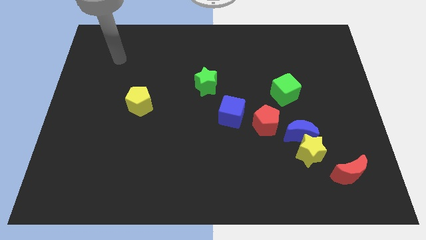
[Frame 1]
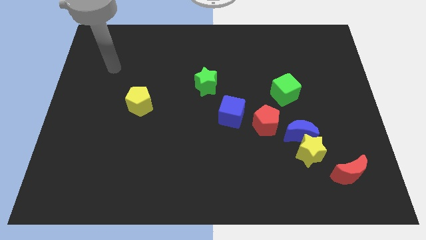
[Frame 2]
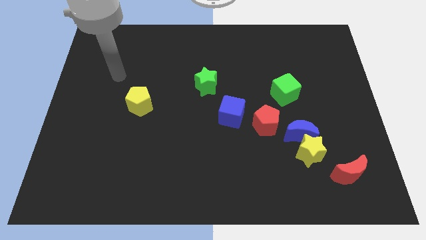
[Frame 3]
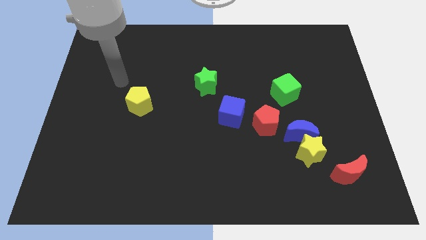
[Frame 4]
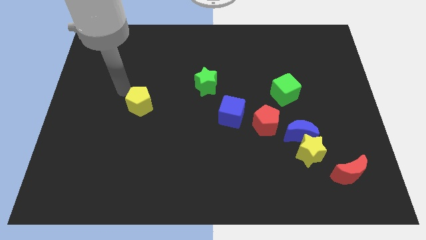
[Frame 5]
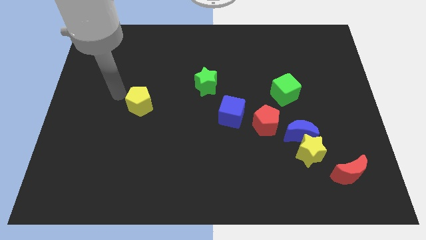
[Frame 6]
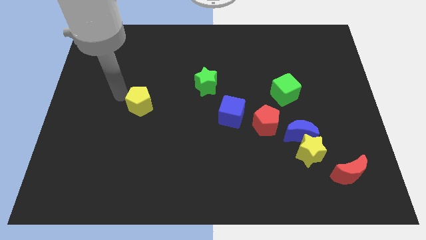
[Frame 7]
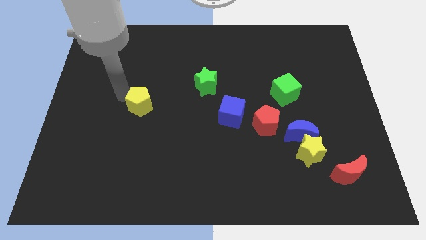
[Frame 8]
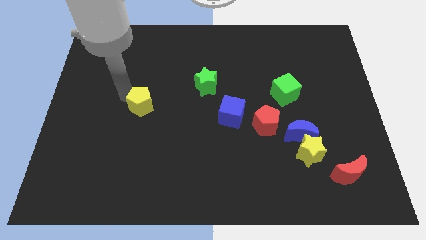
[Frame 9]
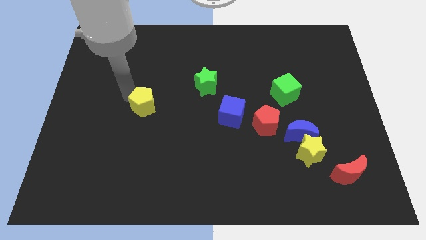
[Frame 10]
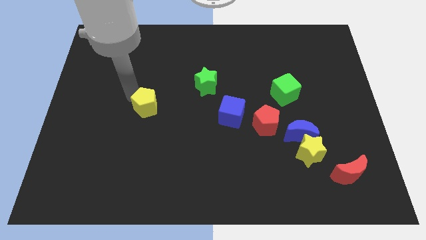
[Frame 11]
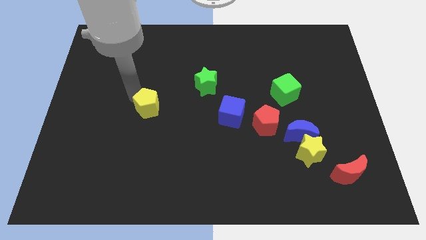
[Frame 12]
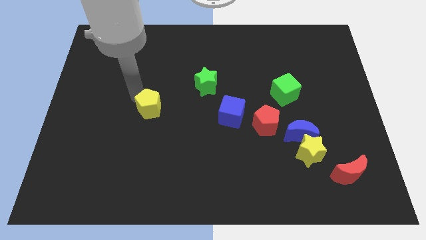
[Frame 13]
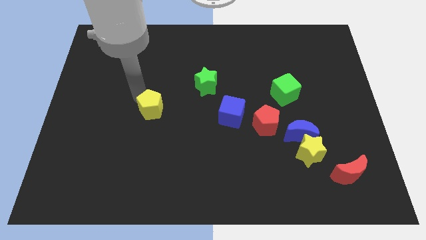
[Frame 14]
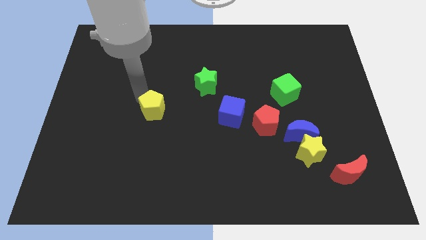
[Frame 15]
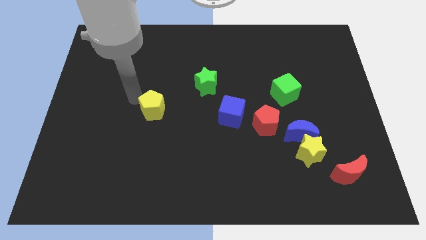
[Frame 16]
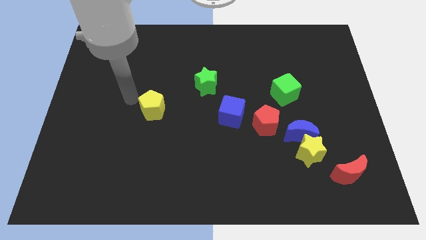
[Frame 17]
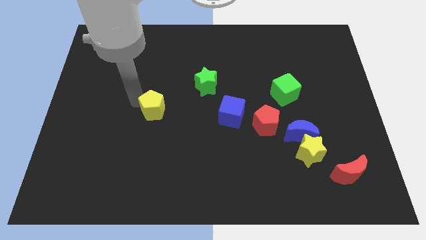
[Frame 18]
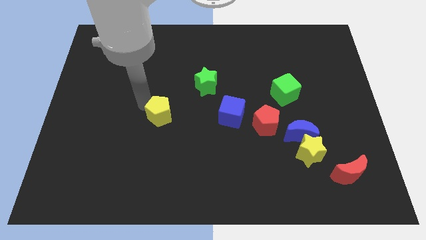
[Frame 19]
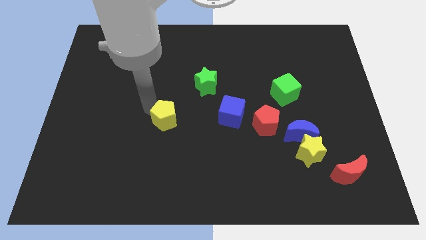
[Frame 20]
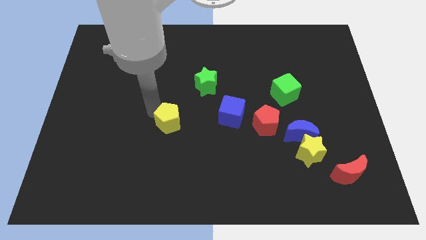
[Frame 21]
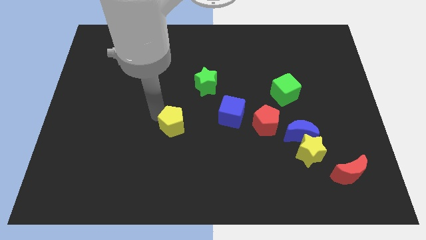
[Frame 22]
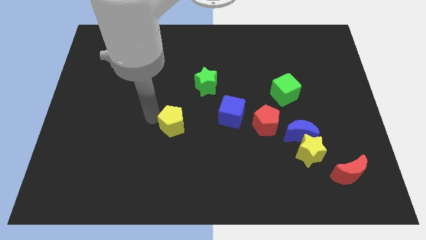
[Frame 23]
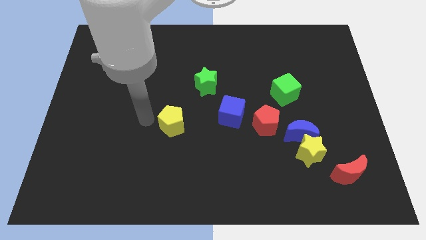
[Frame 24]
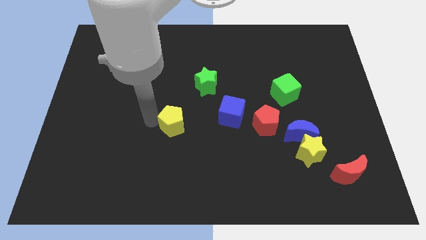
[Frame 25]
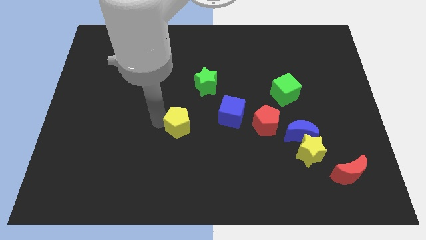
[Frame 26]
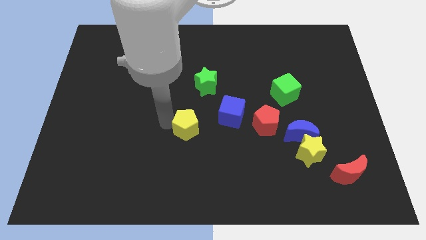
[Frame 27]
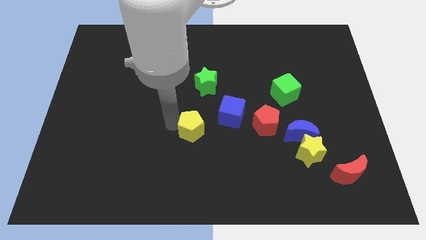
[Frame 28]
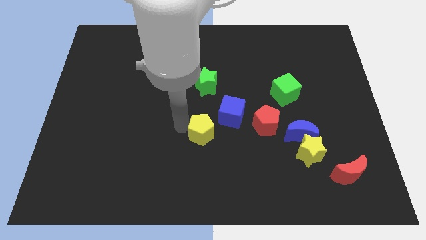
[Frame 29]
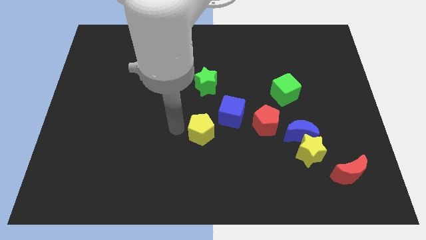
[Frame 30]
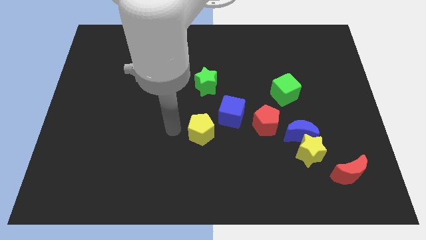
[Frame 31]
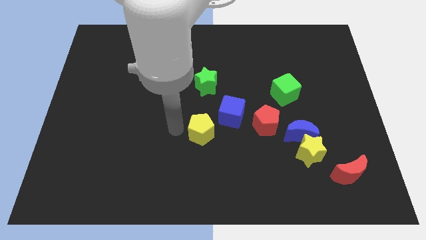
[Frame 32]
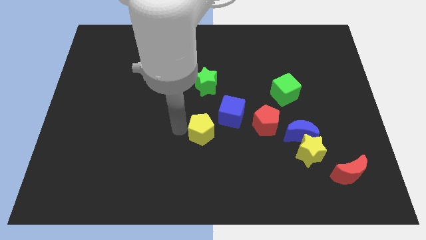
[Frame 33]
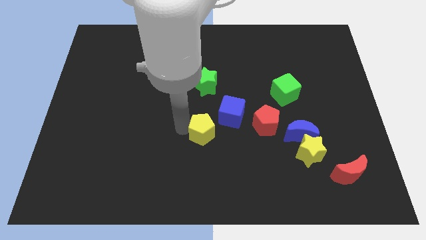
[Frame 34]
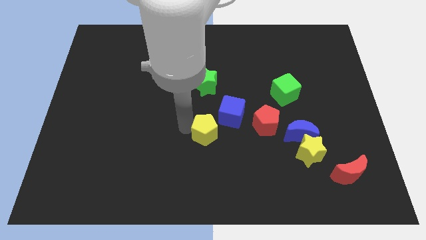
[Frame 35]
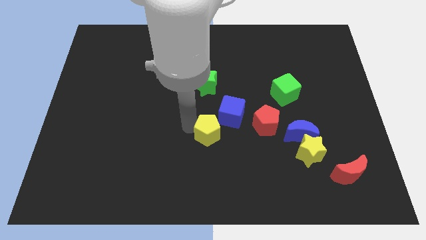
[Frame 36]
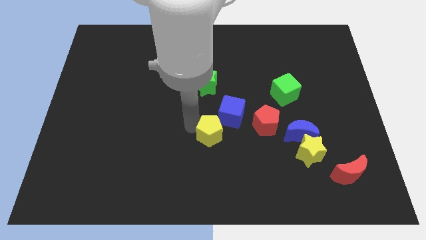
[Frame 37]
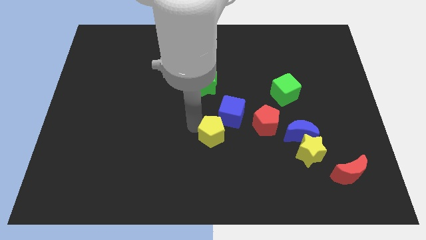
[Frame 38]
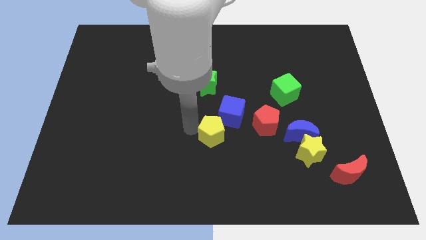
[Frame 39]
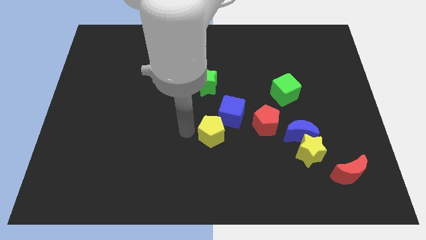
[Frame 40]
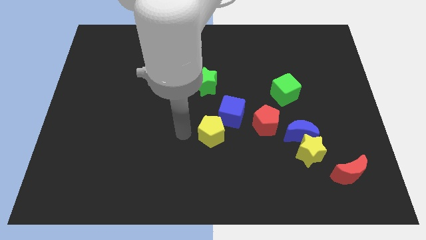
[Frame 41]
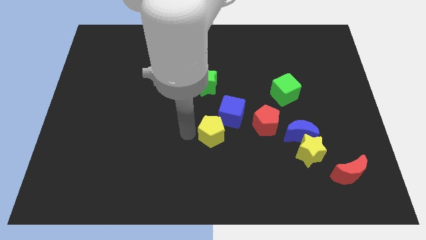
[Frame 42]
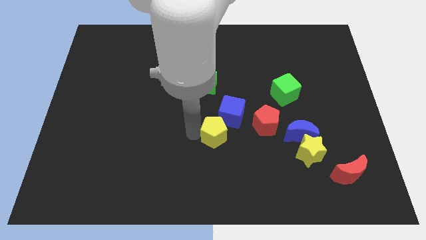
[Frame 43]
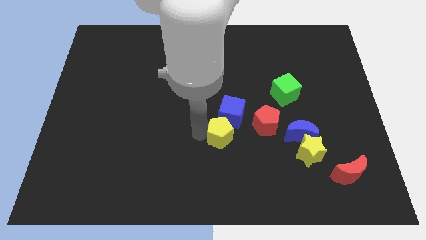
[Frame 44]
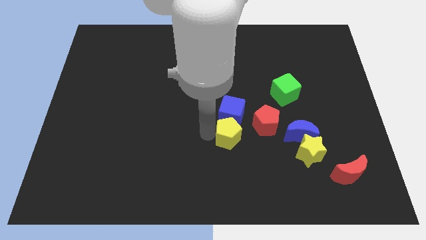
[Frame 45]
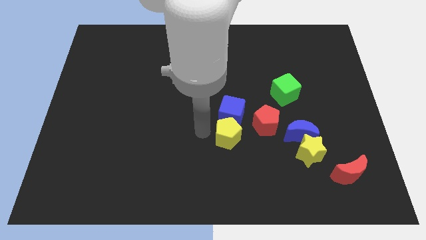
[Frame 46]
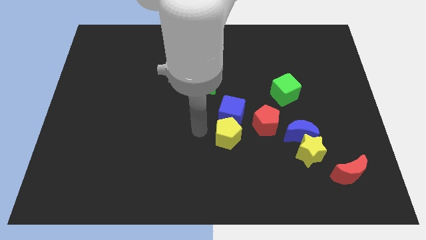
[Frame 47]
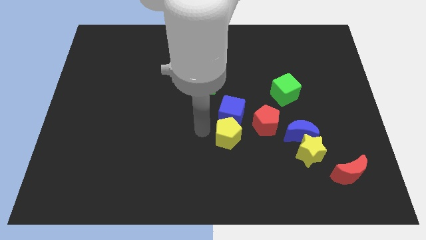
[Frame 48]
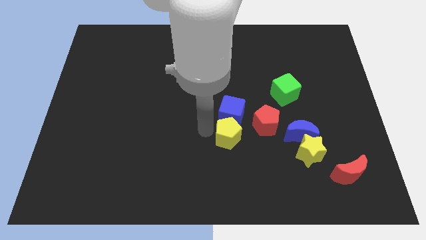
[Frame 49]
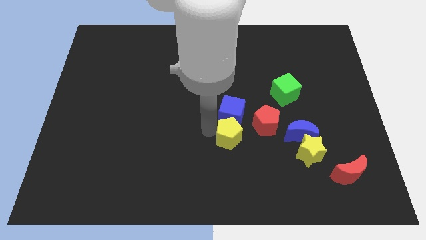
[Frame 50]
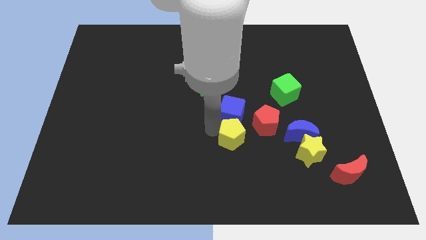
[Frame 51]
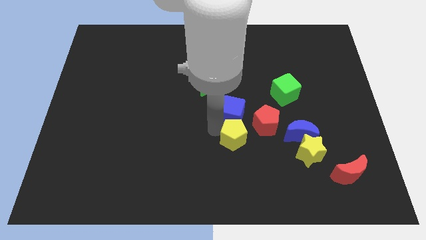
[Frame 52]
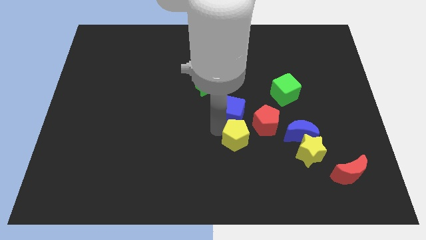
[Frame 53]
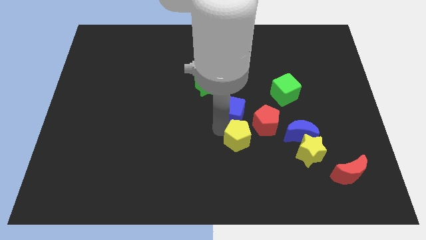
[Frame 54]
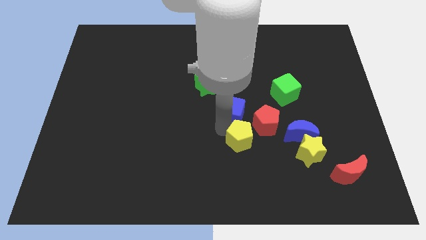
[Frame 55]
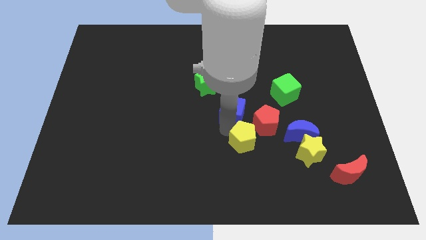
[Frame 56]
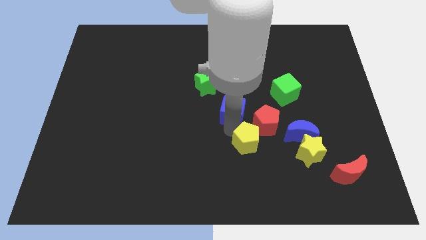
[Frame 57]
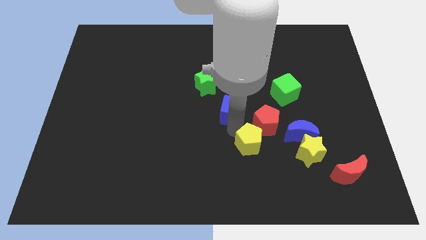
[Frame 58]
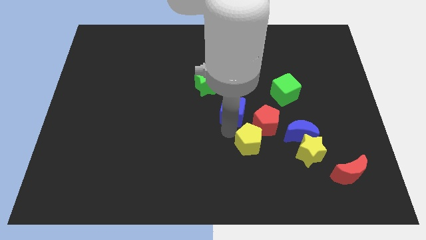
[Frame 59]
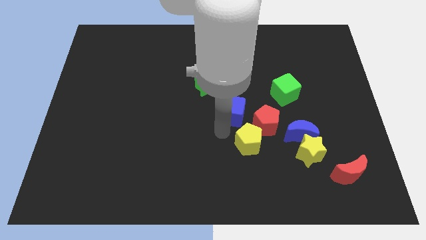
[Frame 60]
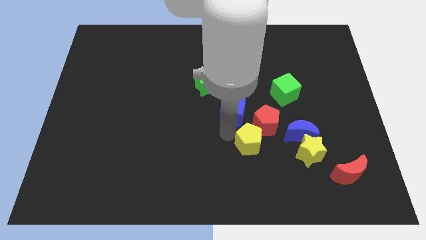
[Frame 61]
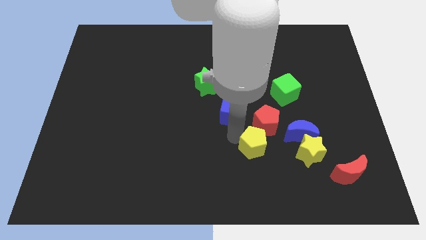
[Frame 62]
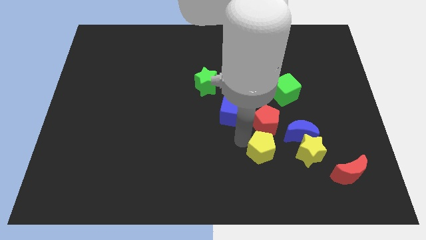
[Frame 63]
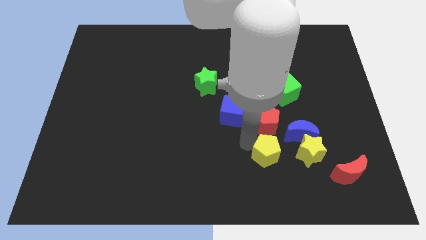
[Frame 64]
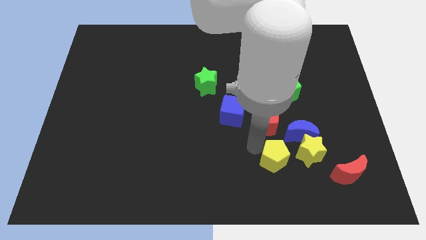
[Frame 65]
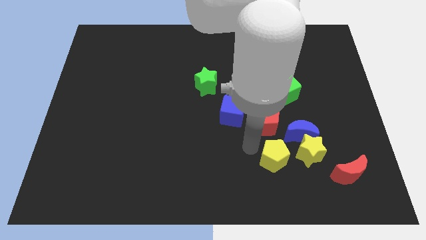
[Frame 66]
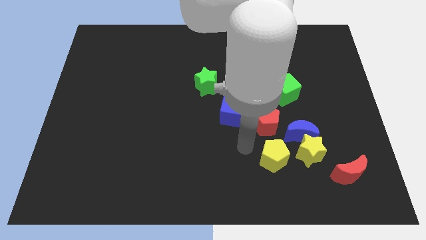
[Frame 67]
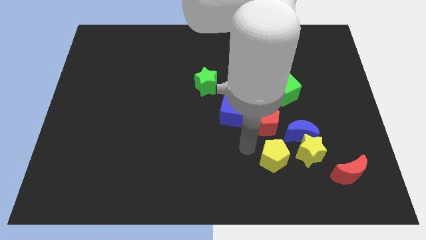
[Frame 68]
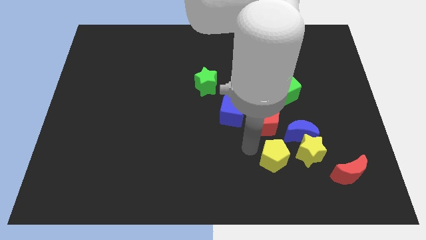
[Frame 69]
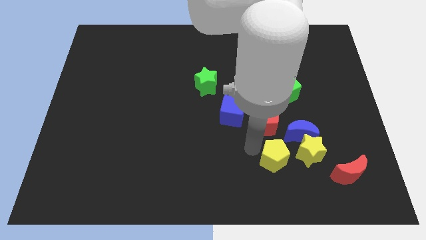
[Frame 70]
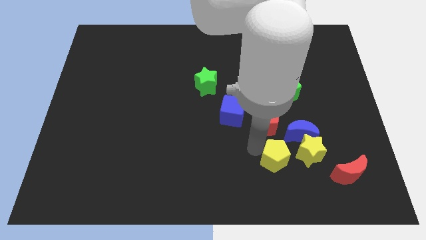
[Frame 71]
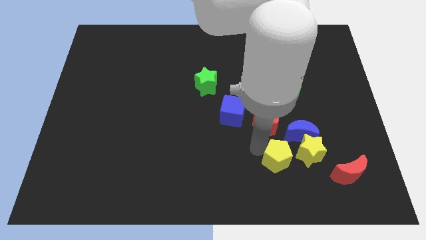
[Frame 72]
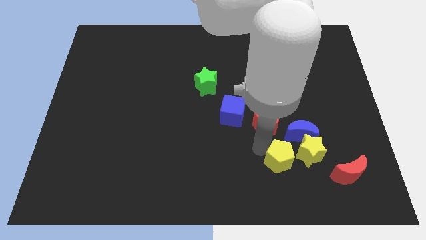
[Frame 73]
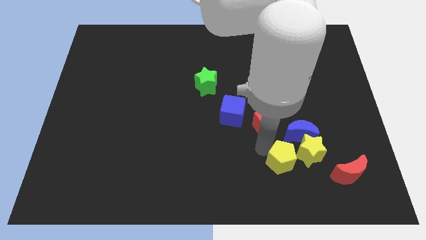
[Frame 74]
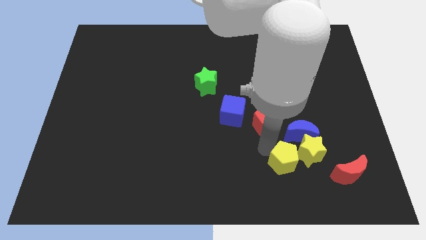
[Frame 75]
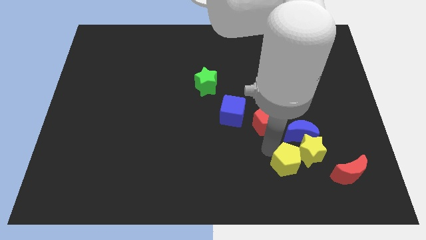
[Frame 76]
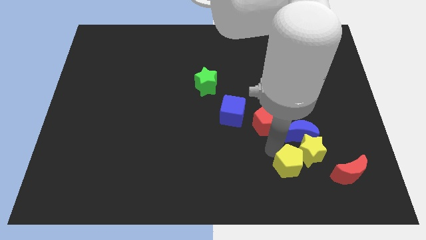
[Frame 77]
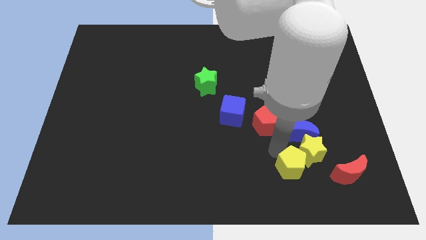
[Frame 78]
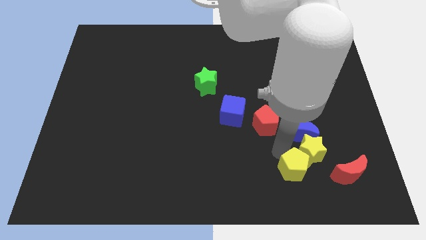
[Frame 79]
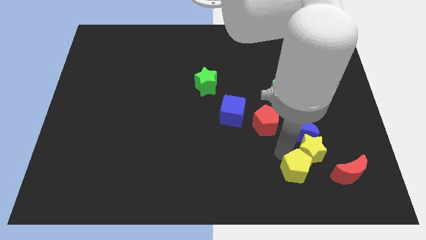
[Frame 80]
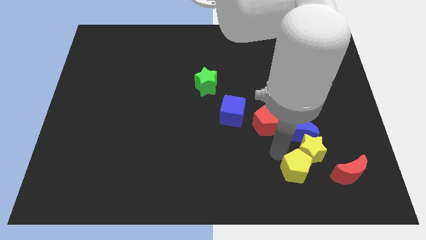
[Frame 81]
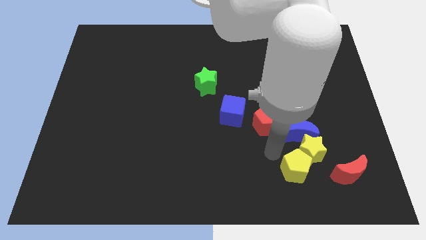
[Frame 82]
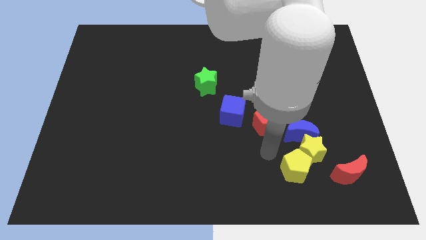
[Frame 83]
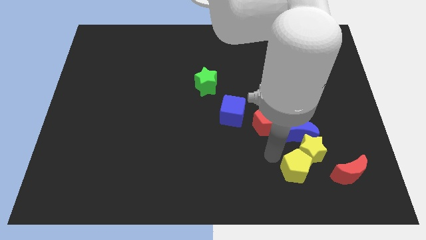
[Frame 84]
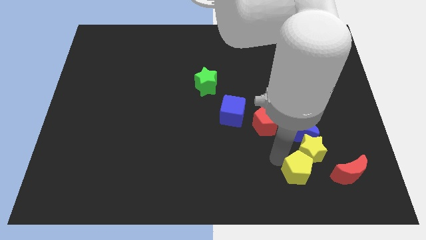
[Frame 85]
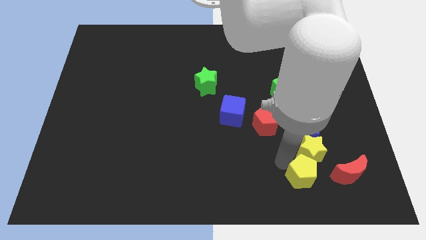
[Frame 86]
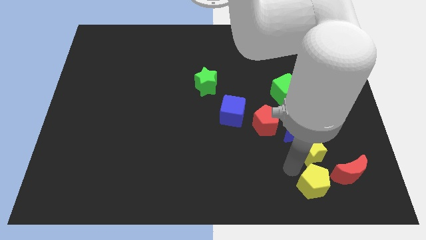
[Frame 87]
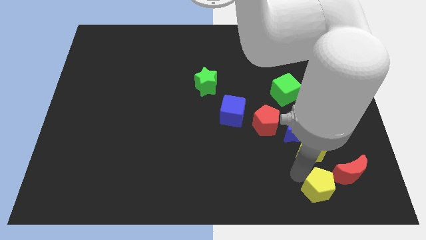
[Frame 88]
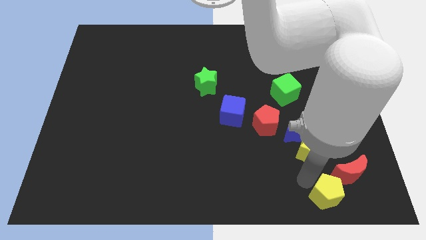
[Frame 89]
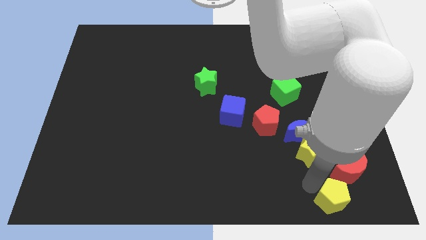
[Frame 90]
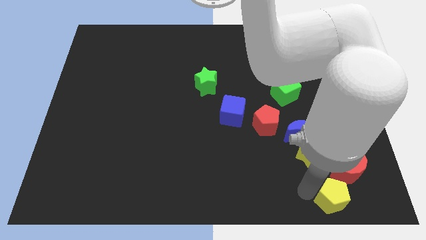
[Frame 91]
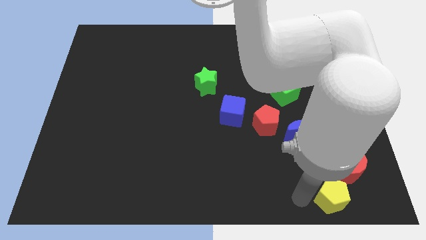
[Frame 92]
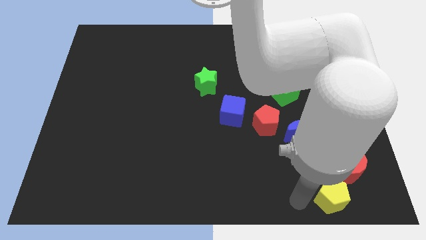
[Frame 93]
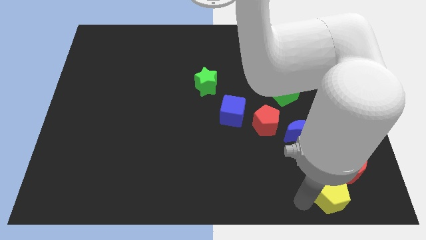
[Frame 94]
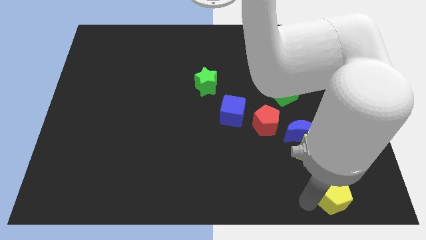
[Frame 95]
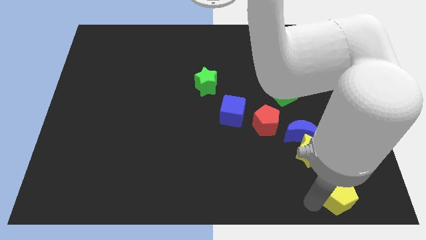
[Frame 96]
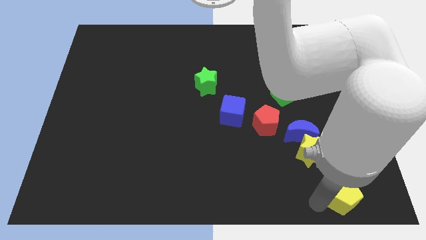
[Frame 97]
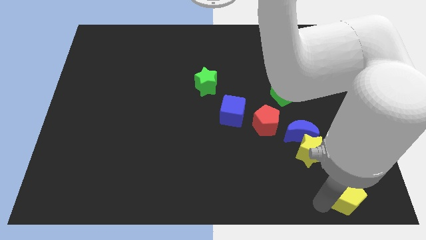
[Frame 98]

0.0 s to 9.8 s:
push the yellow pentagon to the bottom right
